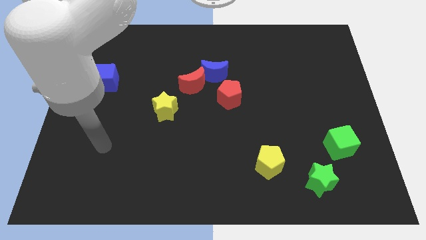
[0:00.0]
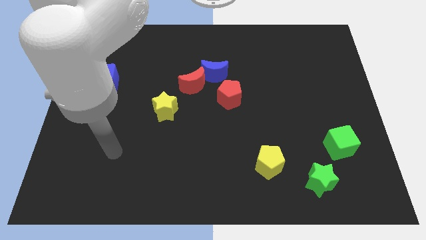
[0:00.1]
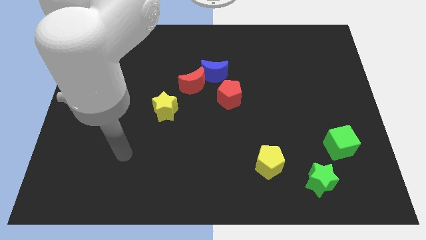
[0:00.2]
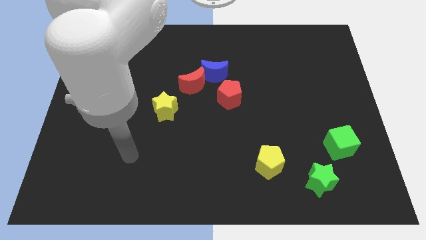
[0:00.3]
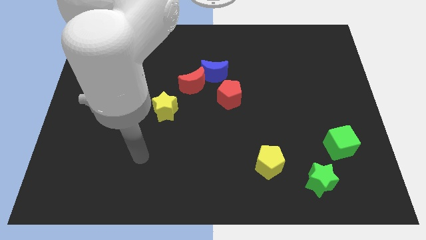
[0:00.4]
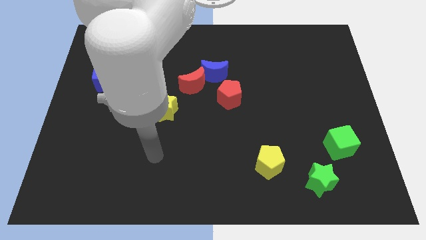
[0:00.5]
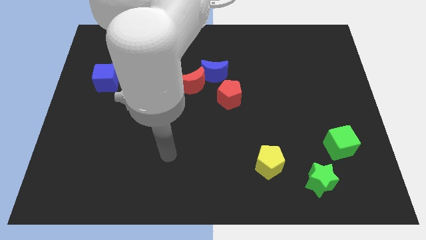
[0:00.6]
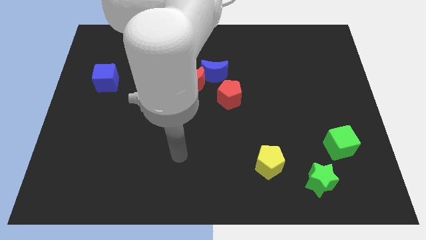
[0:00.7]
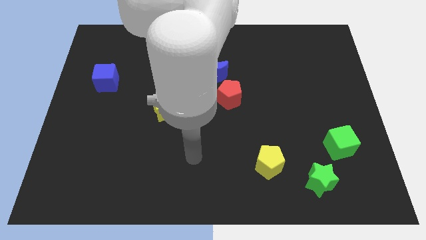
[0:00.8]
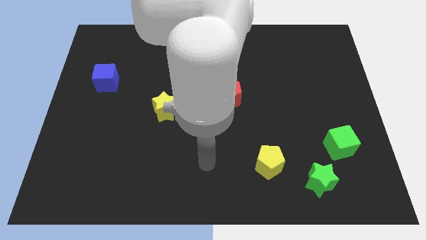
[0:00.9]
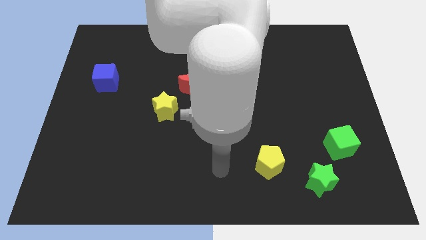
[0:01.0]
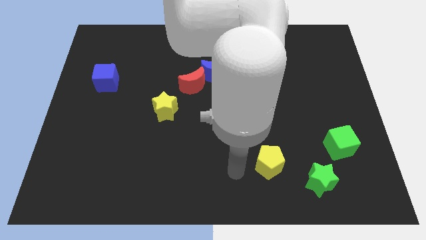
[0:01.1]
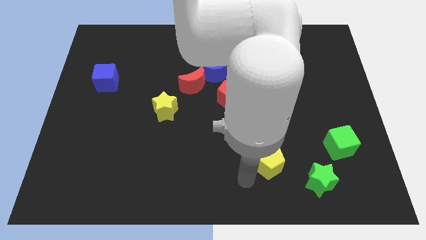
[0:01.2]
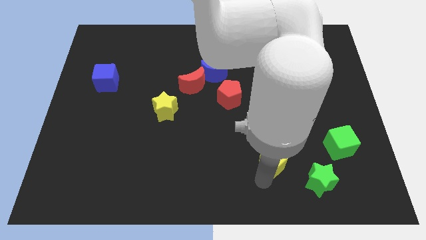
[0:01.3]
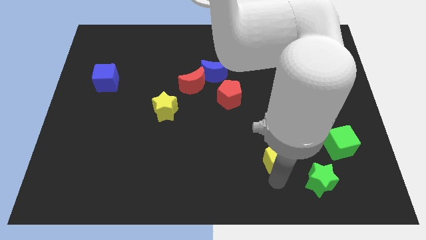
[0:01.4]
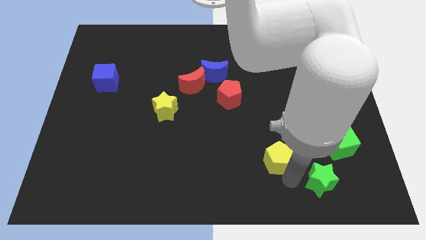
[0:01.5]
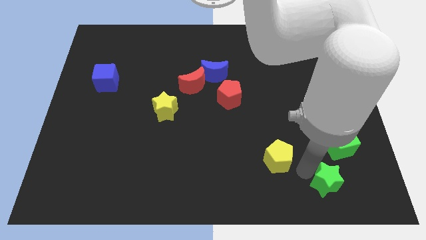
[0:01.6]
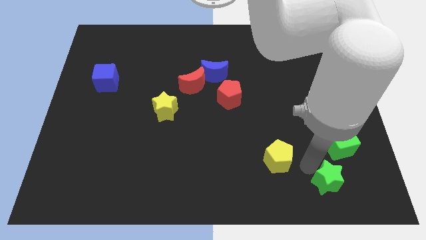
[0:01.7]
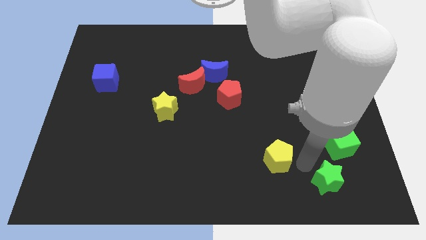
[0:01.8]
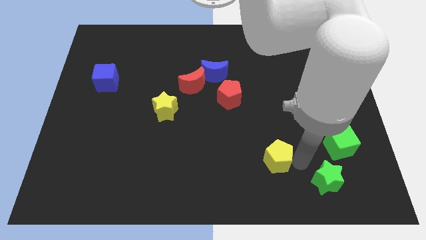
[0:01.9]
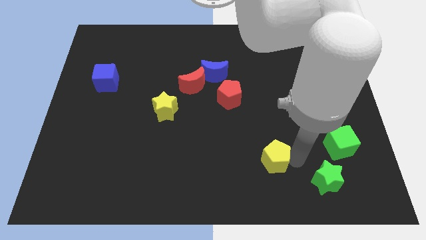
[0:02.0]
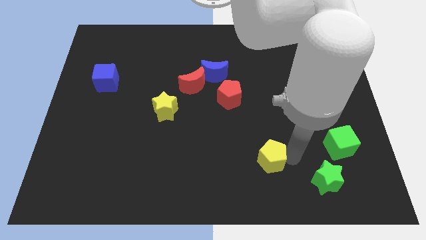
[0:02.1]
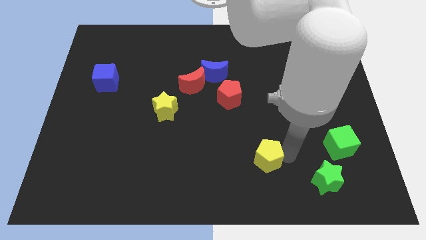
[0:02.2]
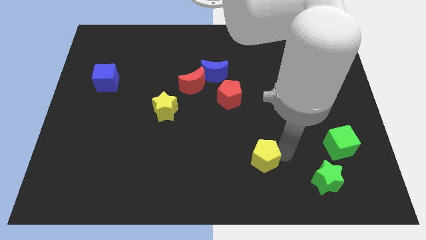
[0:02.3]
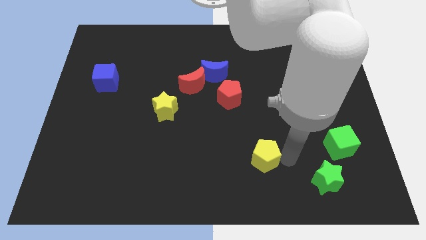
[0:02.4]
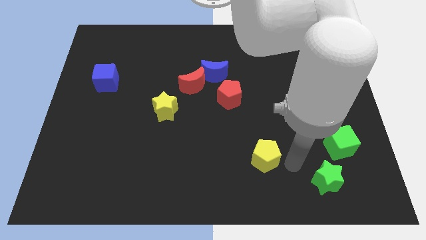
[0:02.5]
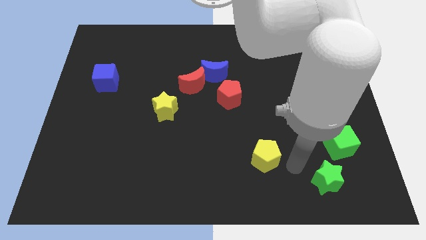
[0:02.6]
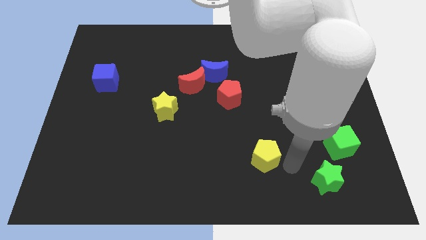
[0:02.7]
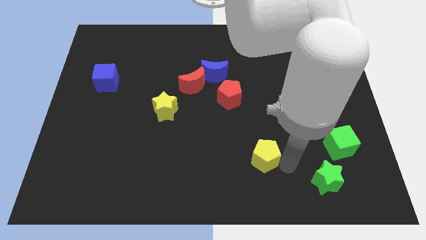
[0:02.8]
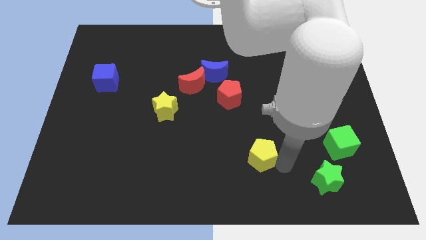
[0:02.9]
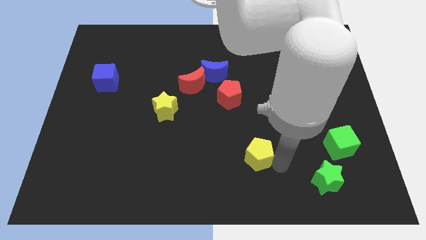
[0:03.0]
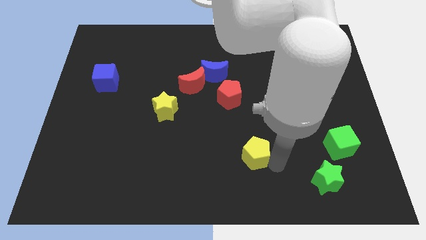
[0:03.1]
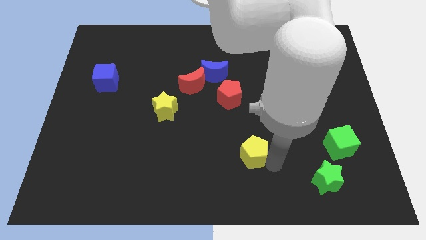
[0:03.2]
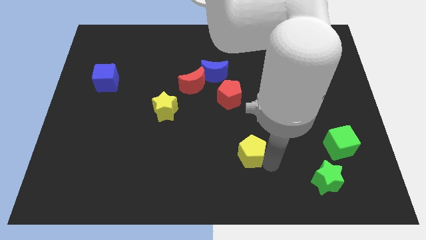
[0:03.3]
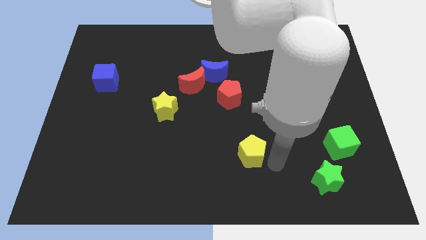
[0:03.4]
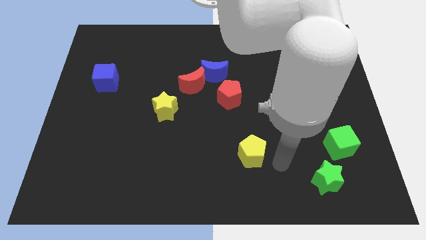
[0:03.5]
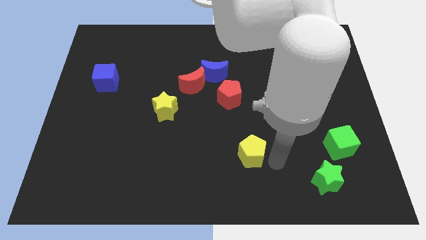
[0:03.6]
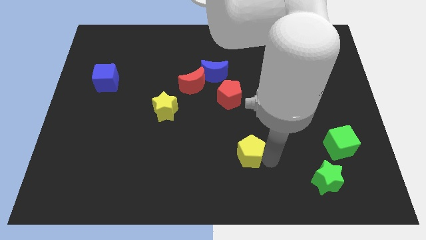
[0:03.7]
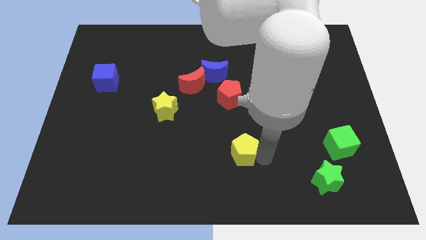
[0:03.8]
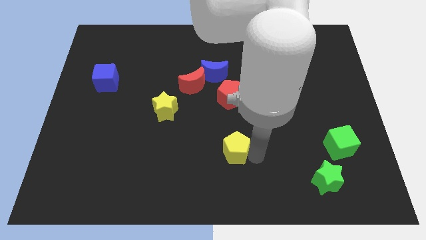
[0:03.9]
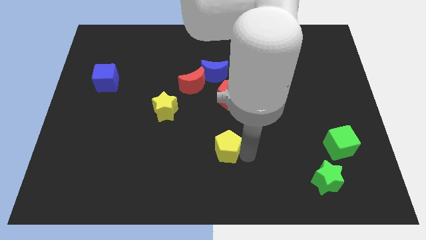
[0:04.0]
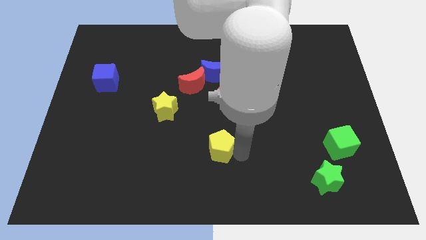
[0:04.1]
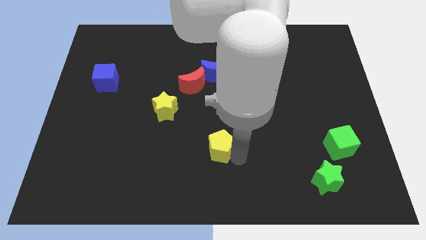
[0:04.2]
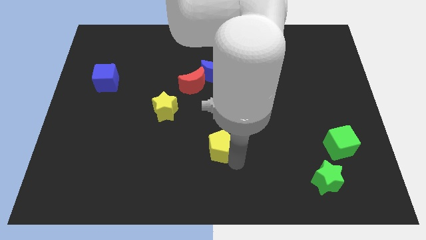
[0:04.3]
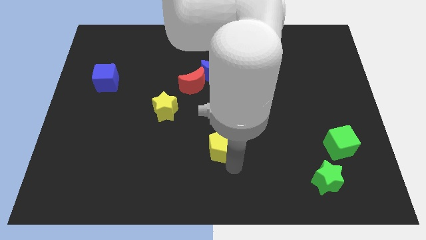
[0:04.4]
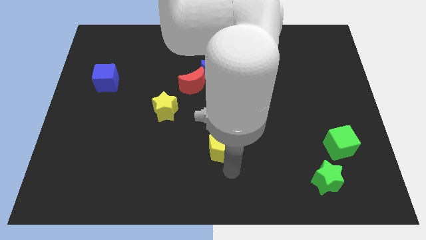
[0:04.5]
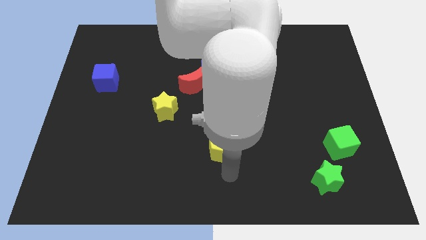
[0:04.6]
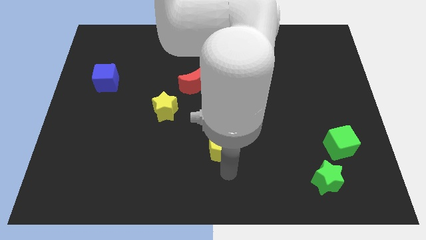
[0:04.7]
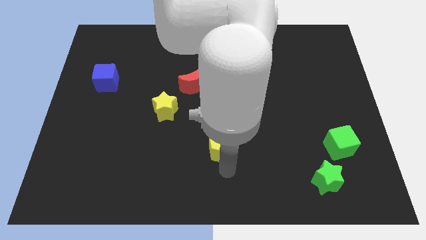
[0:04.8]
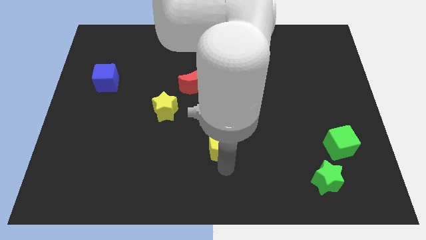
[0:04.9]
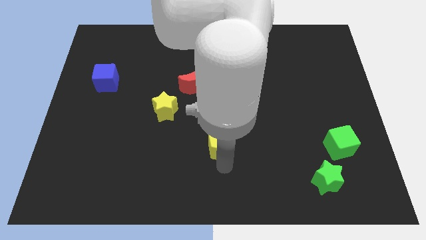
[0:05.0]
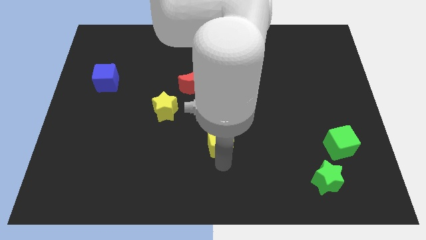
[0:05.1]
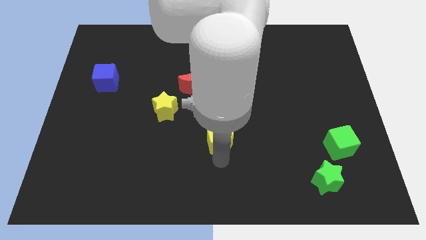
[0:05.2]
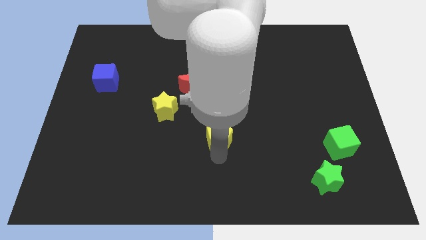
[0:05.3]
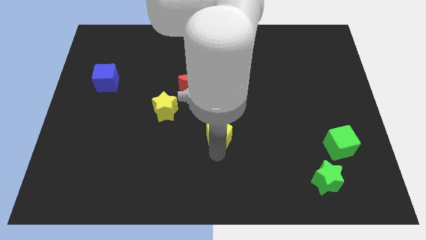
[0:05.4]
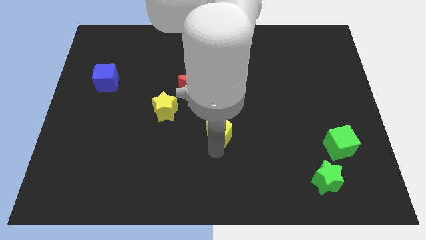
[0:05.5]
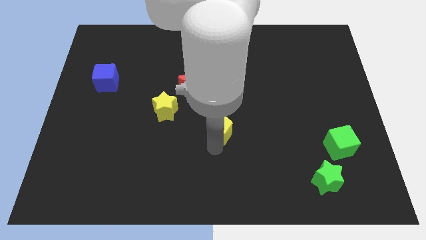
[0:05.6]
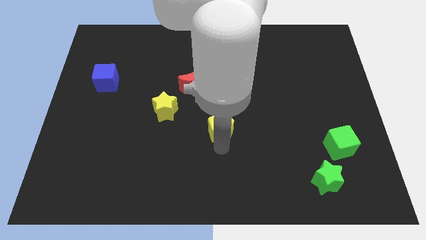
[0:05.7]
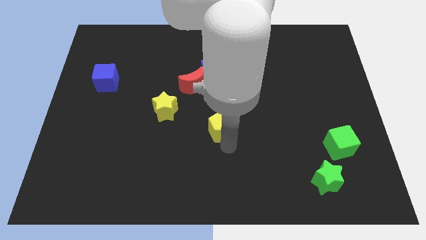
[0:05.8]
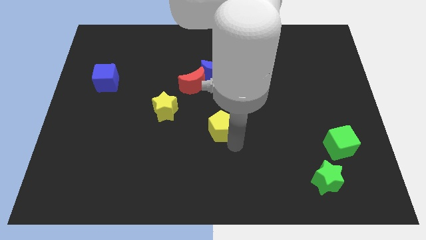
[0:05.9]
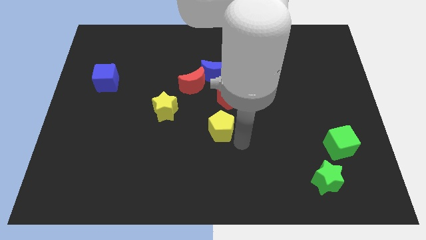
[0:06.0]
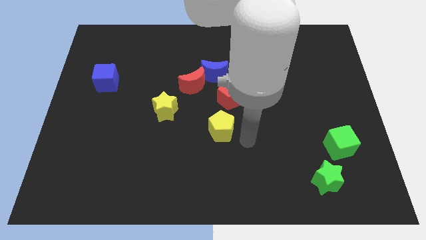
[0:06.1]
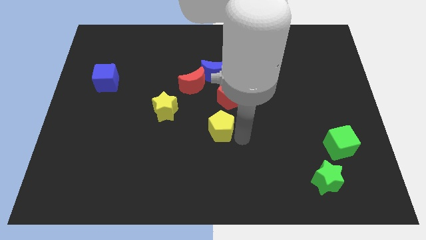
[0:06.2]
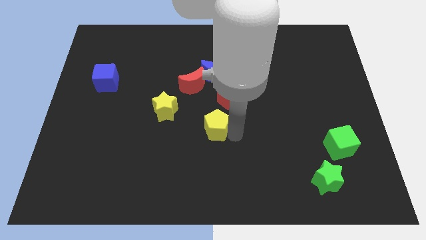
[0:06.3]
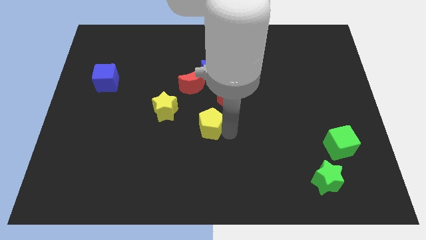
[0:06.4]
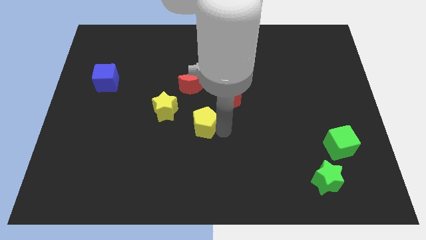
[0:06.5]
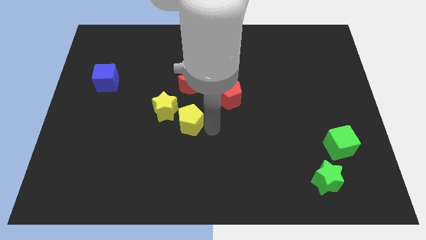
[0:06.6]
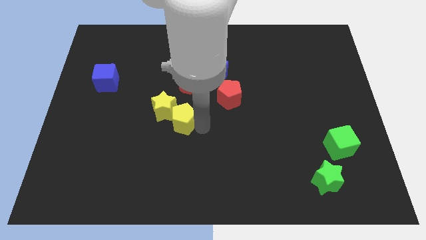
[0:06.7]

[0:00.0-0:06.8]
push the yellow pentagon up and left

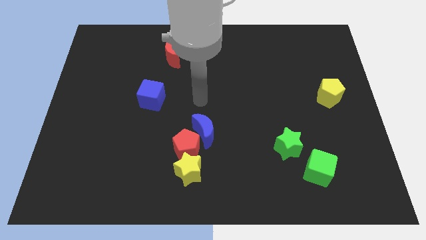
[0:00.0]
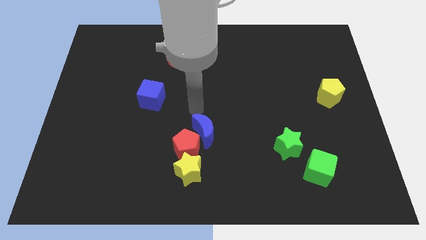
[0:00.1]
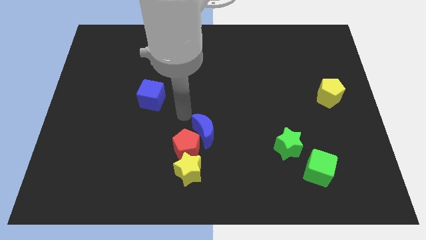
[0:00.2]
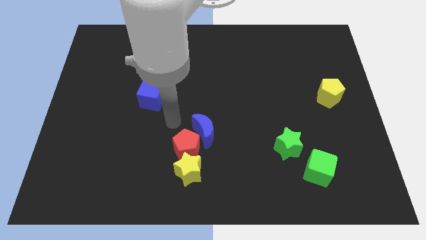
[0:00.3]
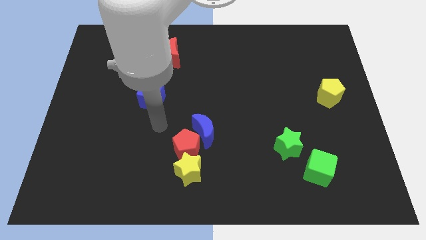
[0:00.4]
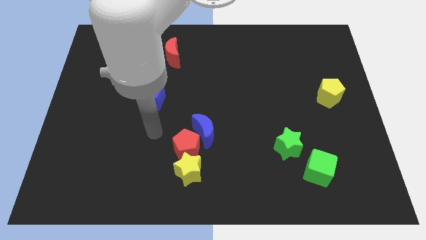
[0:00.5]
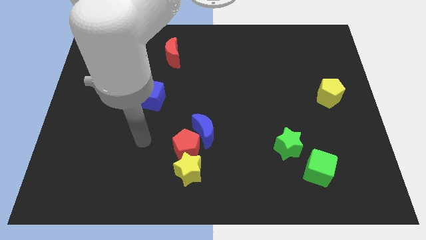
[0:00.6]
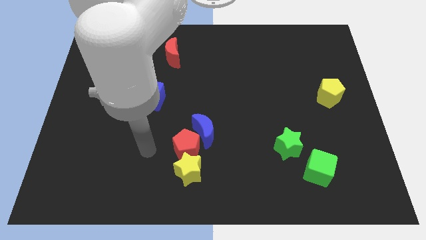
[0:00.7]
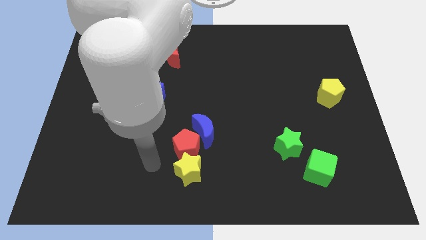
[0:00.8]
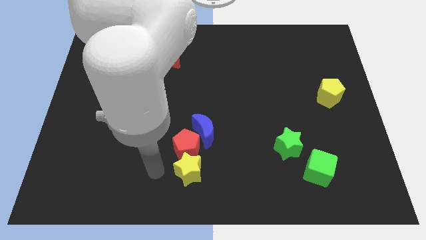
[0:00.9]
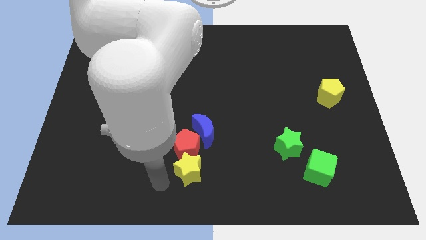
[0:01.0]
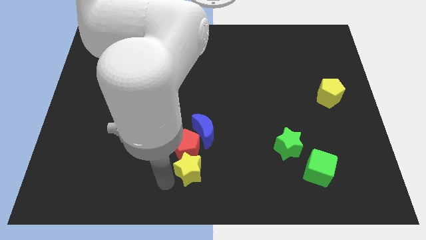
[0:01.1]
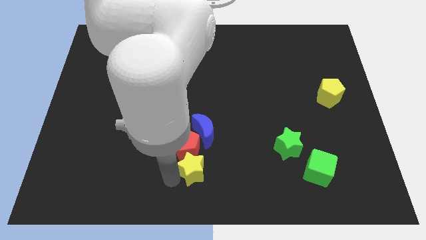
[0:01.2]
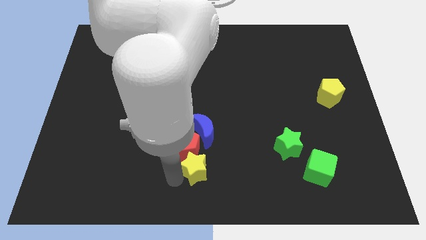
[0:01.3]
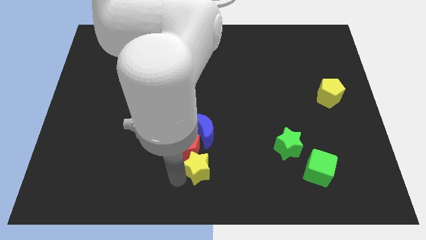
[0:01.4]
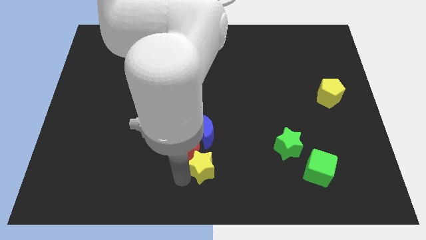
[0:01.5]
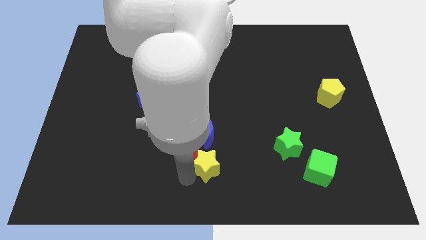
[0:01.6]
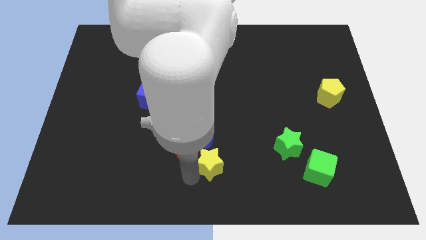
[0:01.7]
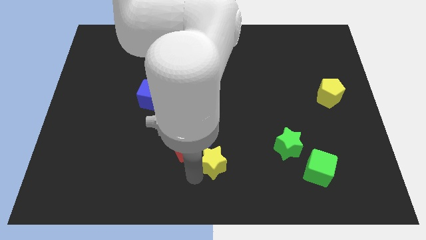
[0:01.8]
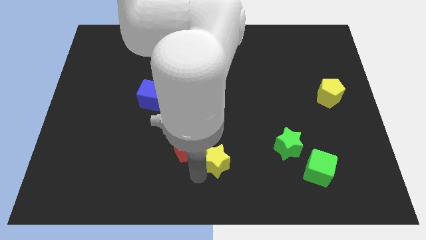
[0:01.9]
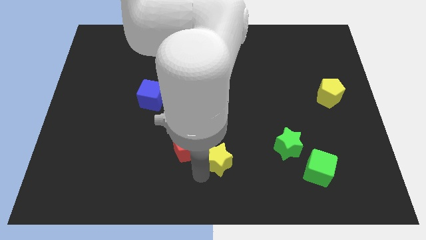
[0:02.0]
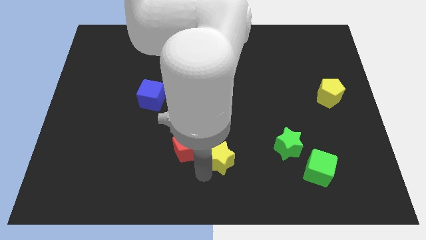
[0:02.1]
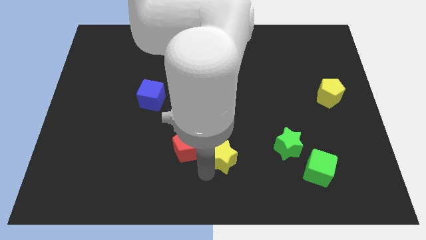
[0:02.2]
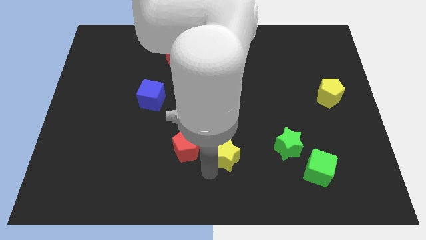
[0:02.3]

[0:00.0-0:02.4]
push the yellow star slightly up and to the right diagonally
